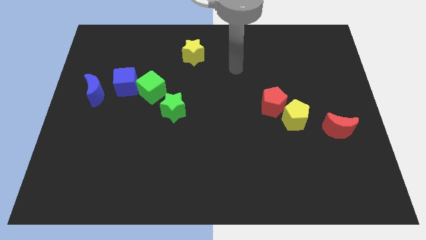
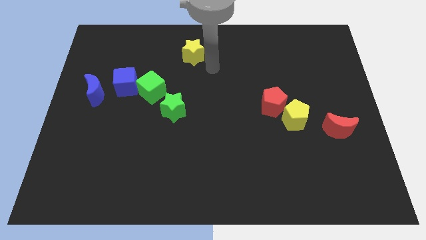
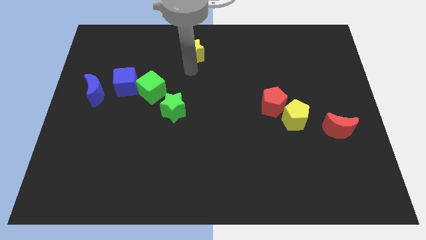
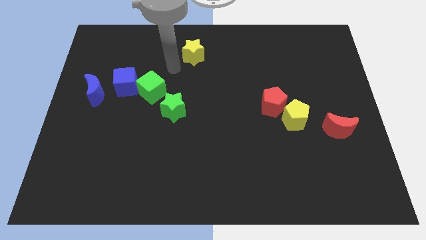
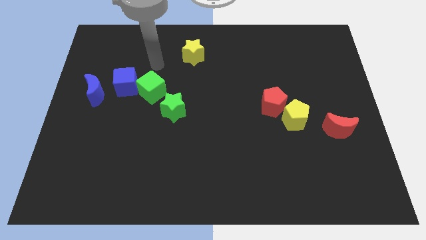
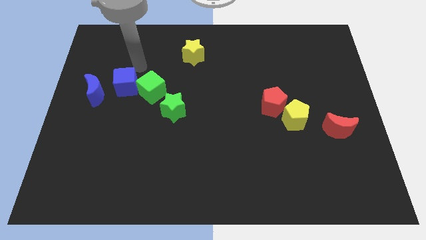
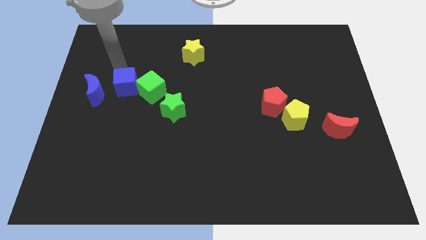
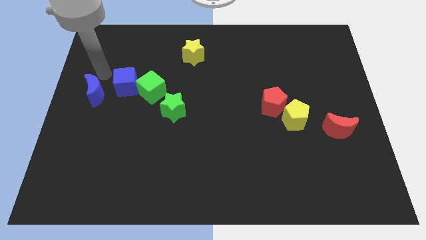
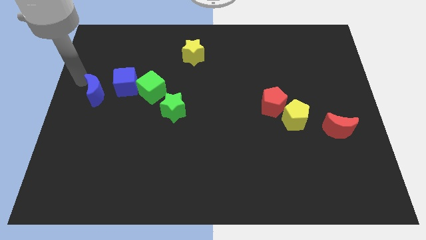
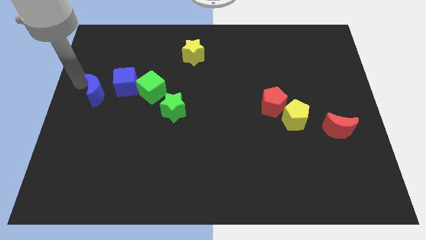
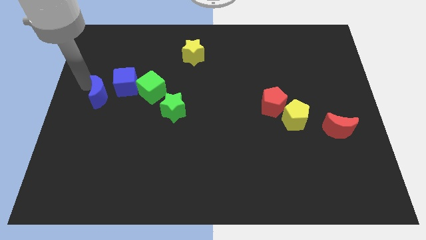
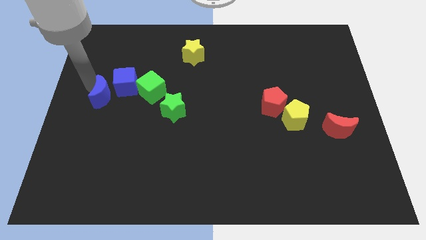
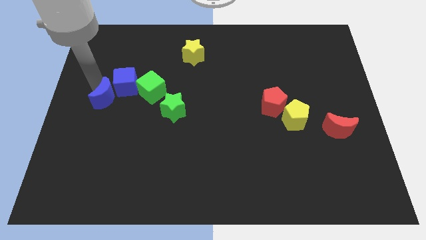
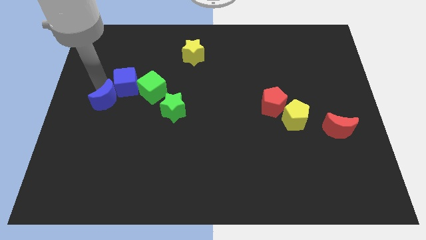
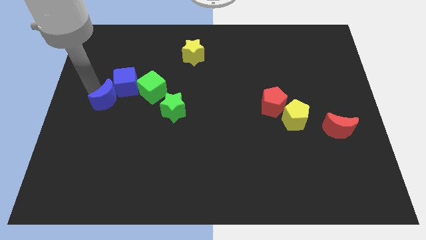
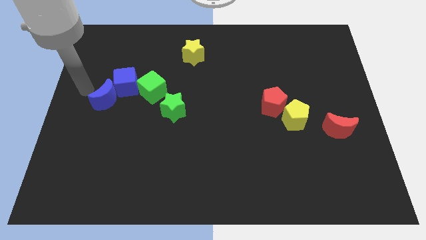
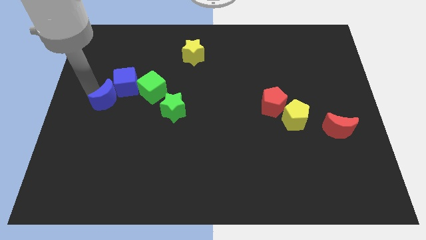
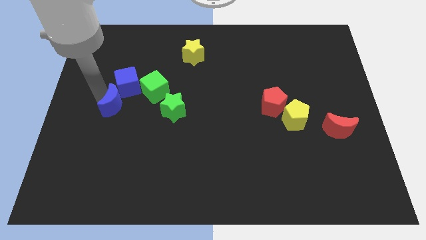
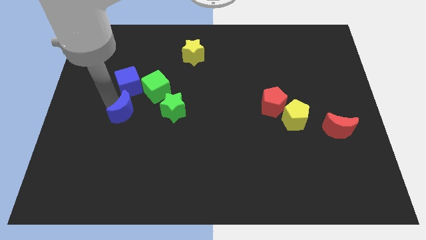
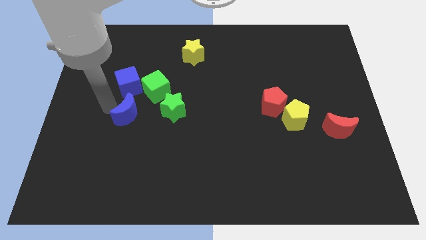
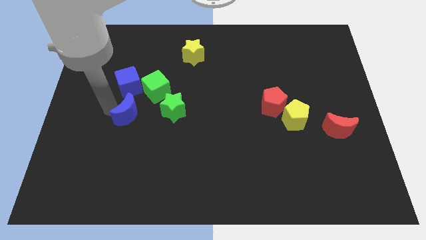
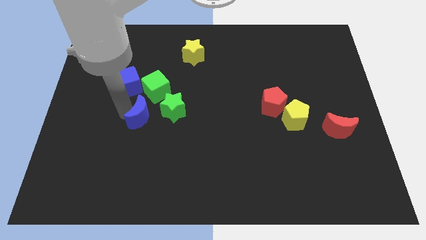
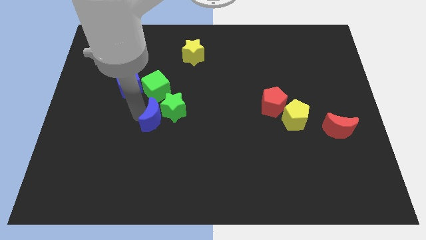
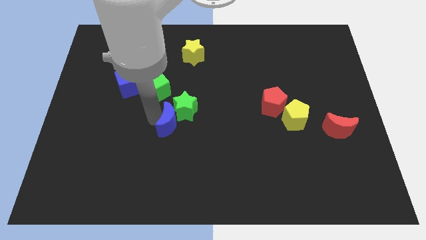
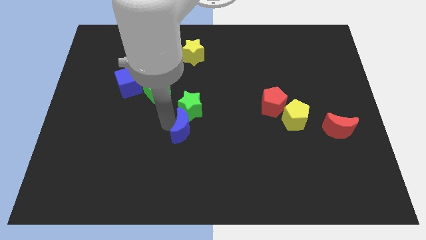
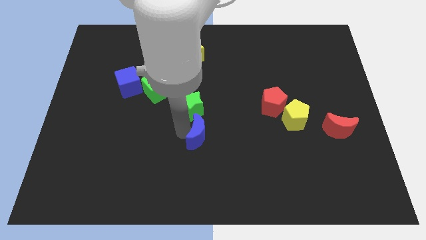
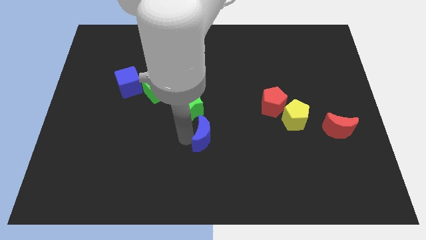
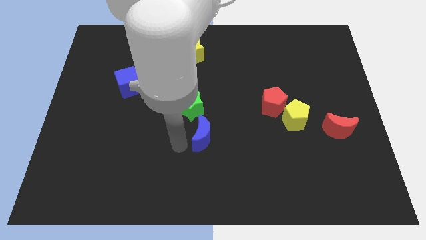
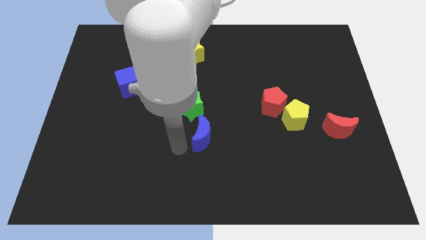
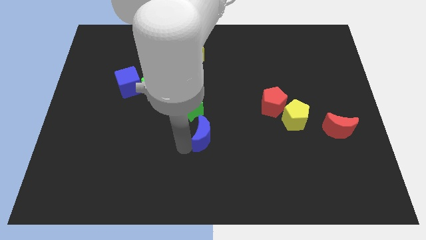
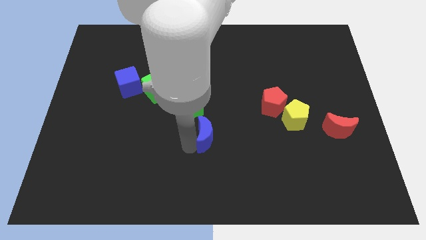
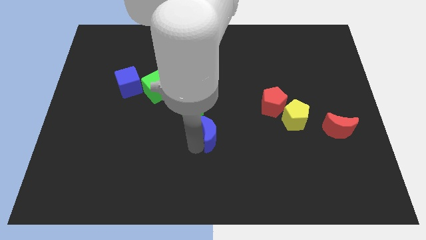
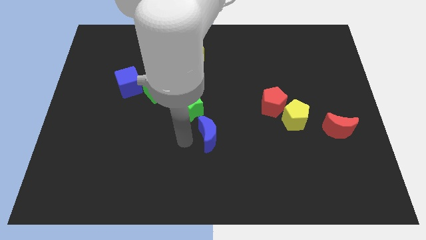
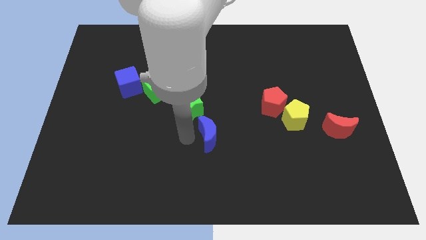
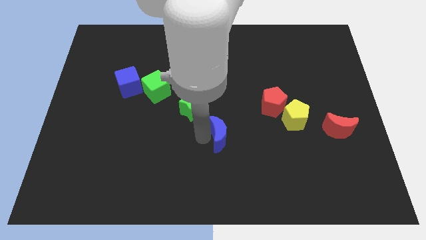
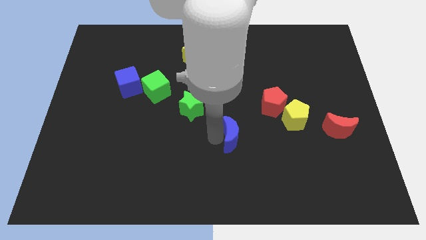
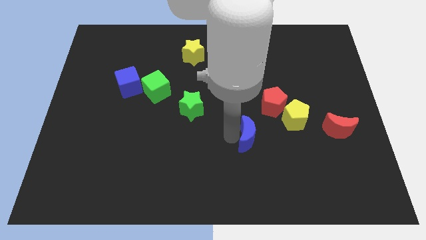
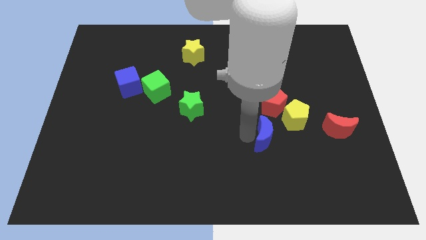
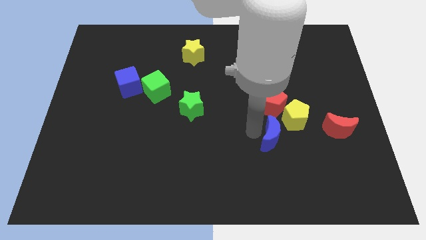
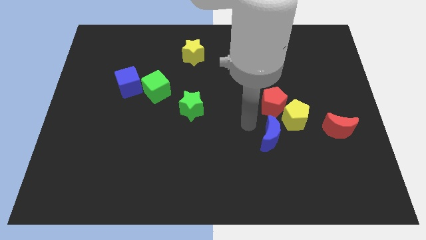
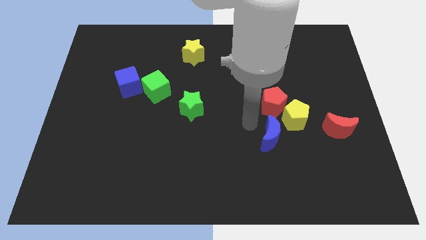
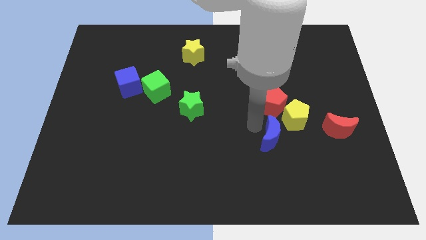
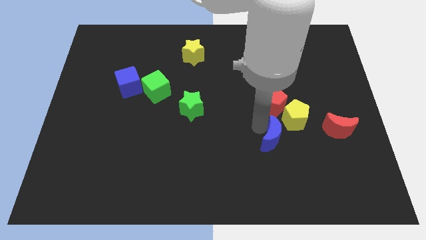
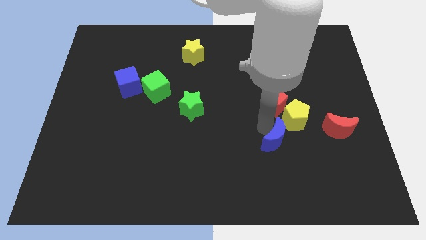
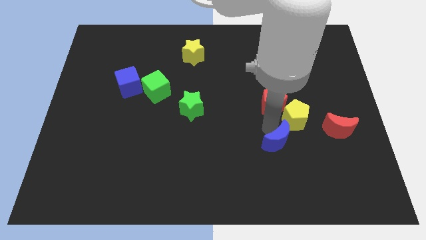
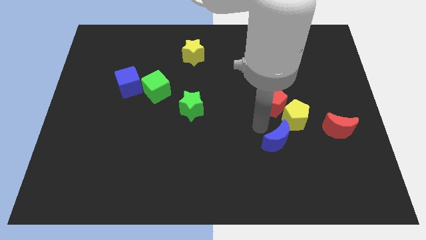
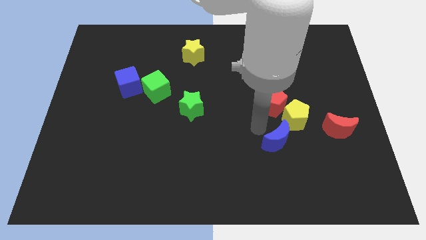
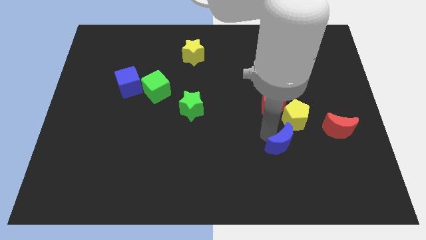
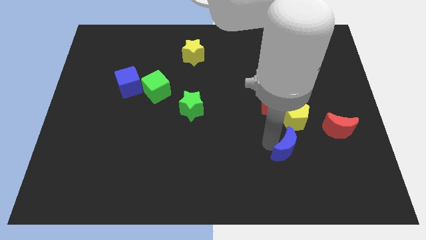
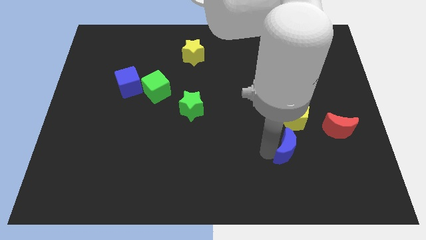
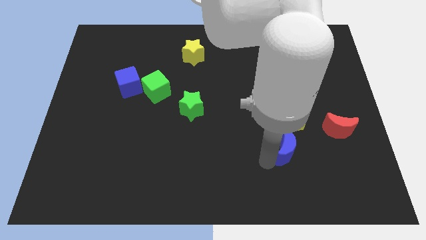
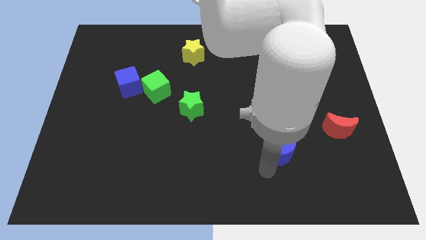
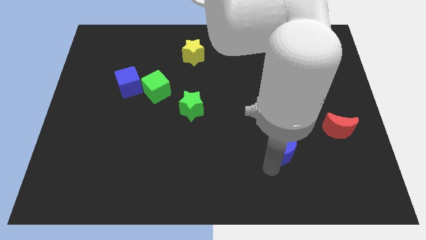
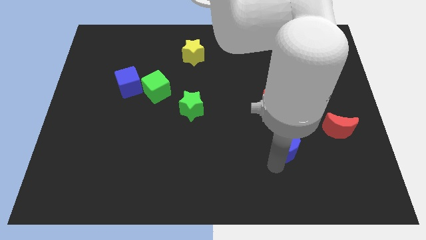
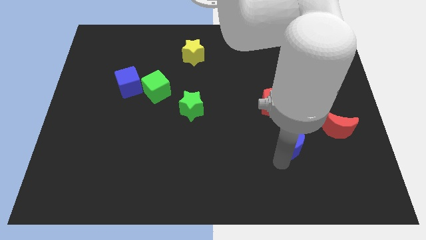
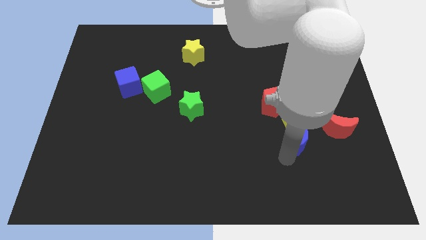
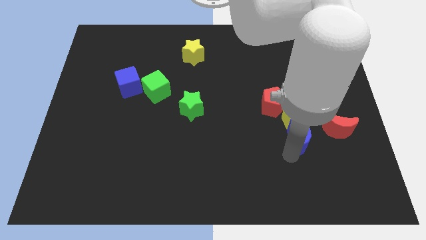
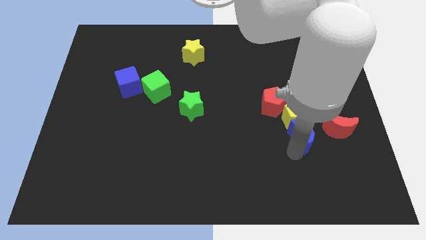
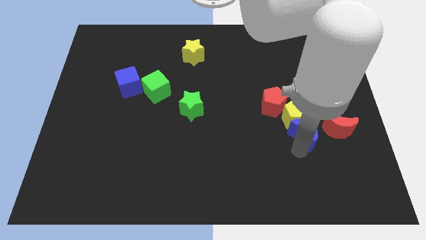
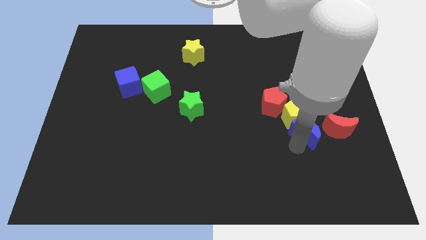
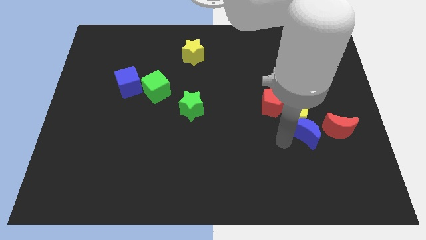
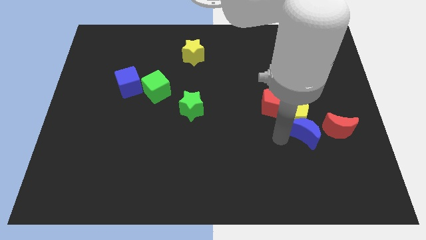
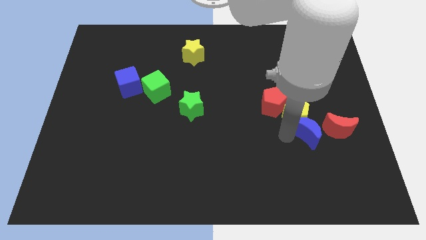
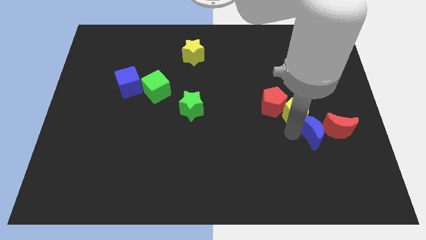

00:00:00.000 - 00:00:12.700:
put the blue moon towards the red moon

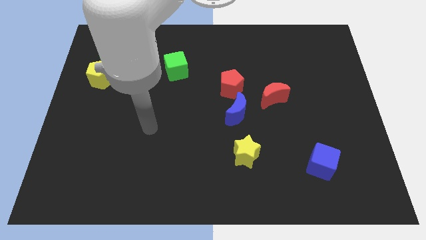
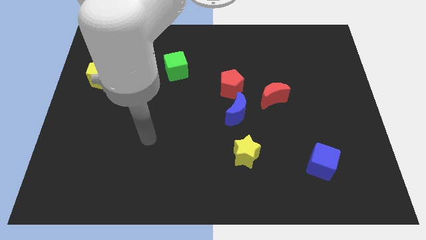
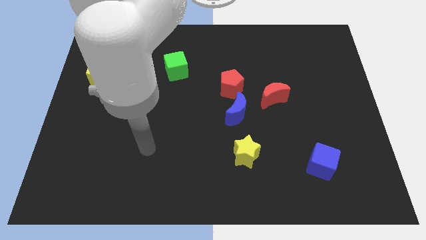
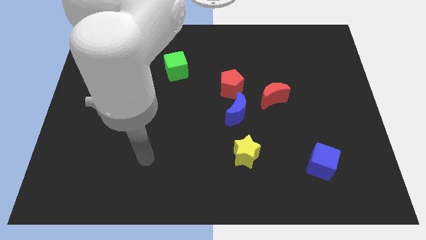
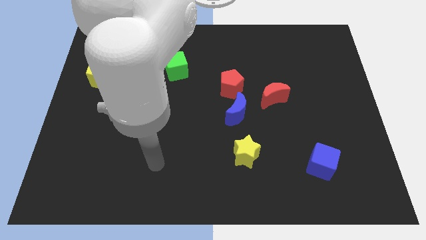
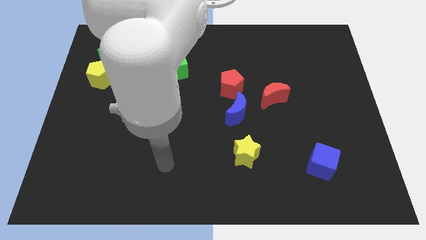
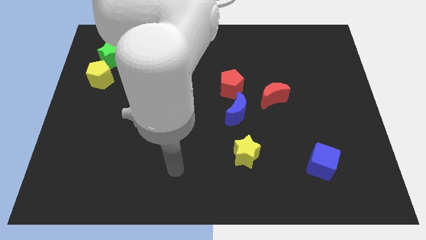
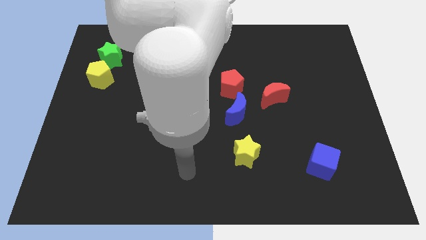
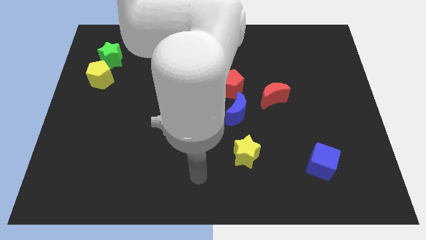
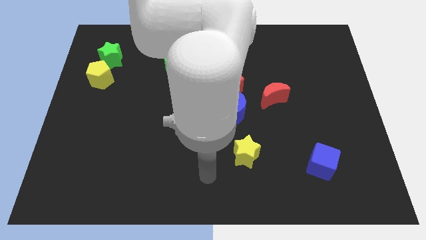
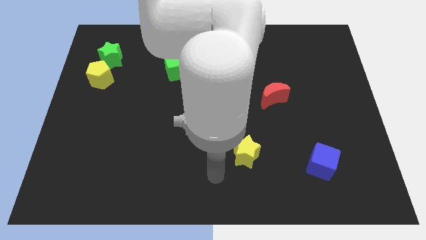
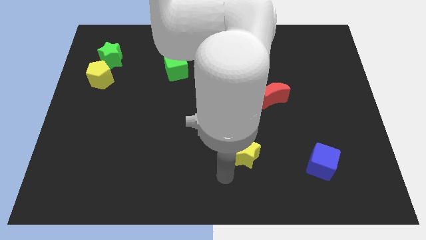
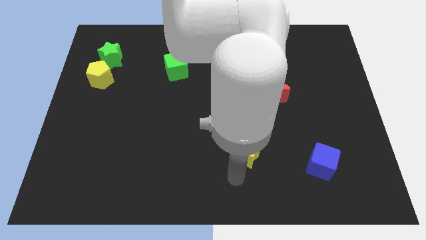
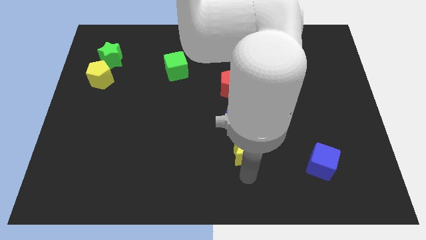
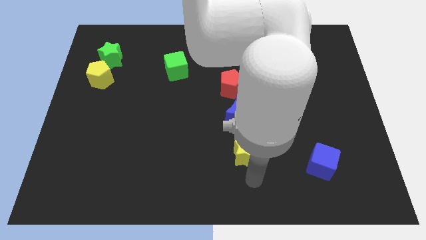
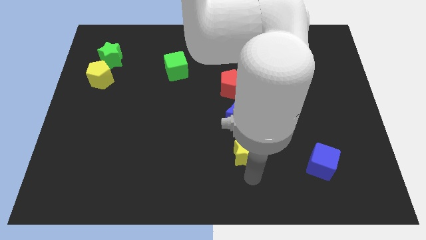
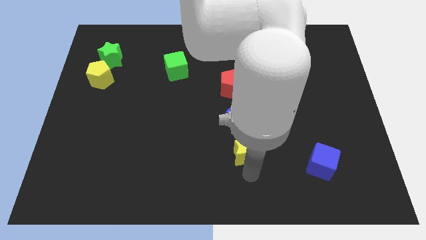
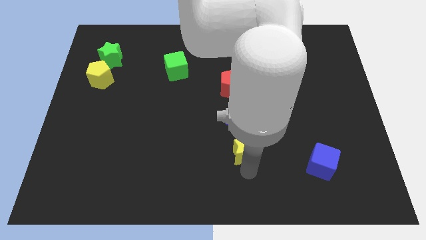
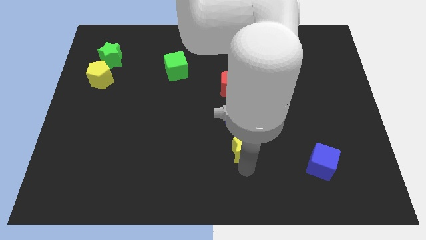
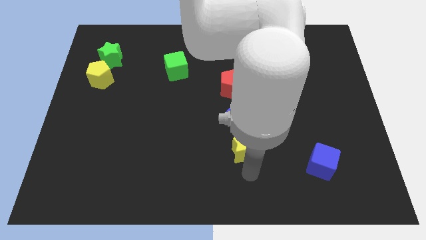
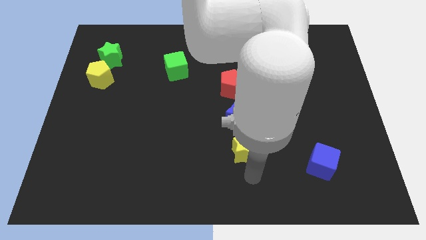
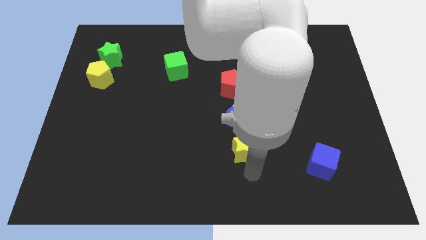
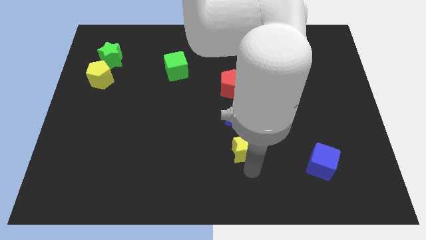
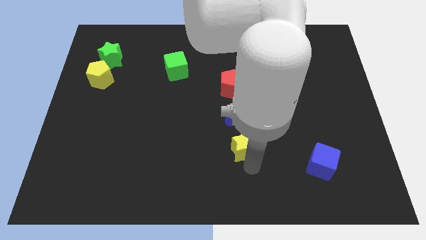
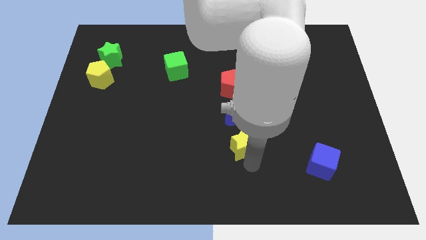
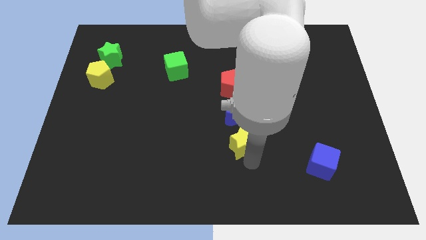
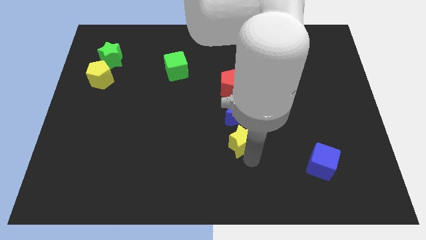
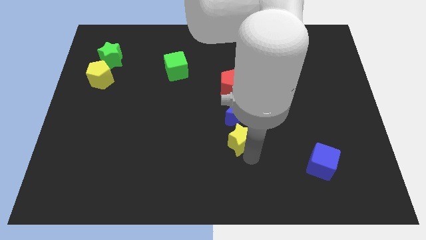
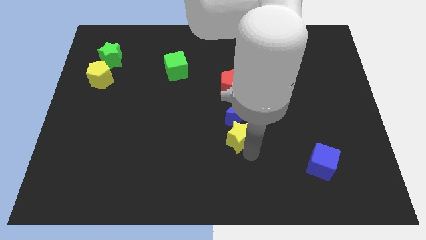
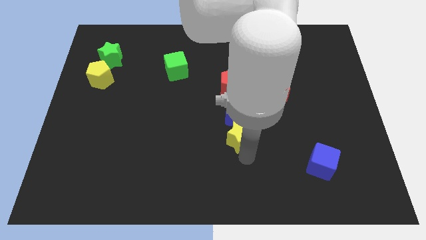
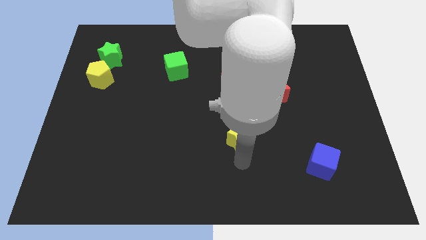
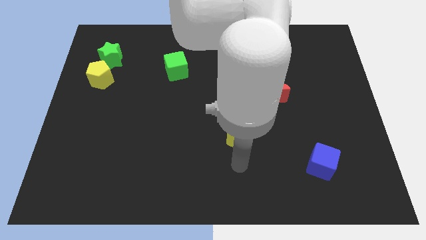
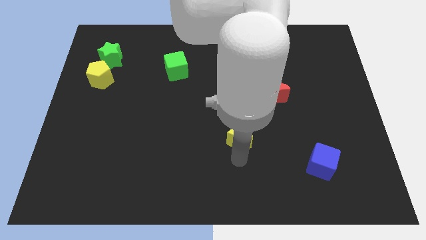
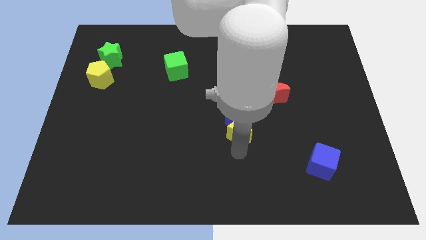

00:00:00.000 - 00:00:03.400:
move the yellow star towards the blue moon
